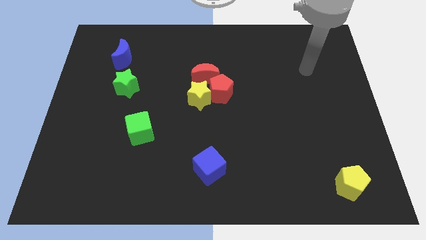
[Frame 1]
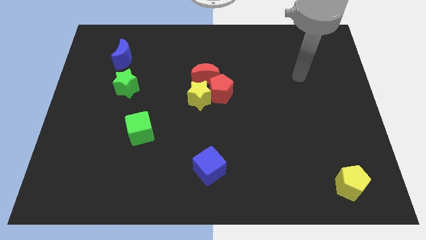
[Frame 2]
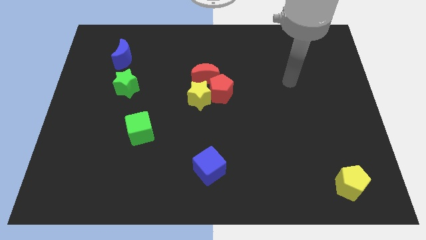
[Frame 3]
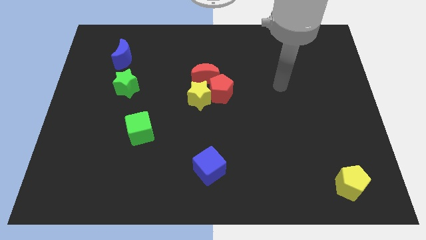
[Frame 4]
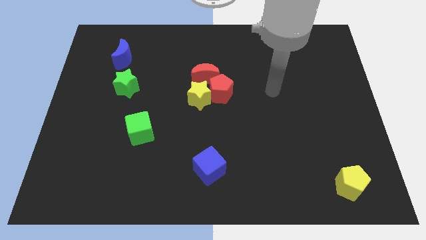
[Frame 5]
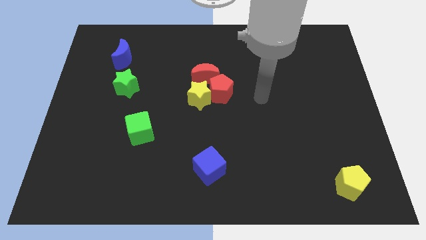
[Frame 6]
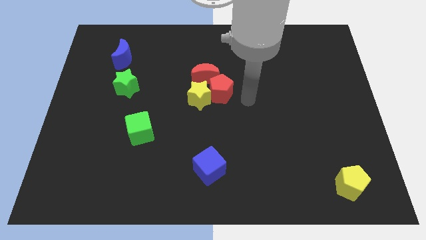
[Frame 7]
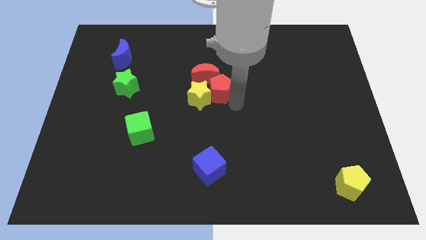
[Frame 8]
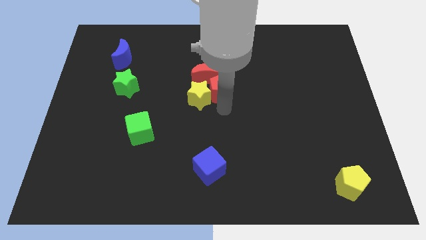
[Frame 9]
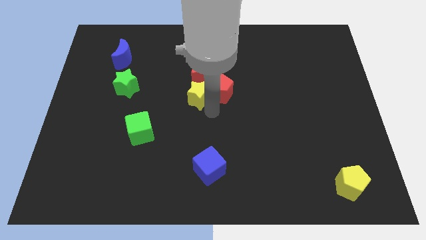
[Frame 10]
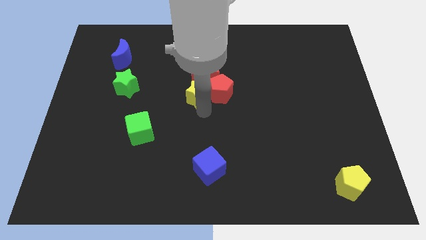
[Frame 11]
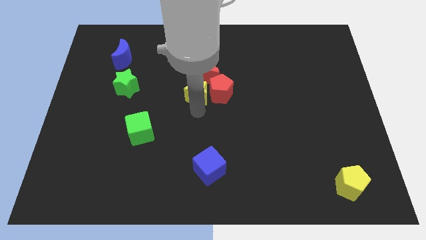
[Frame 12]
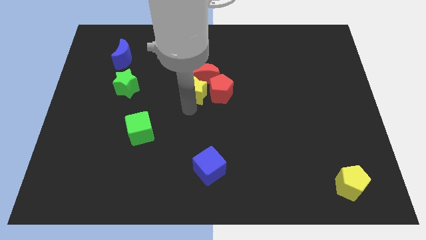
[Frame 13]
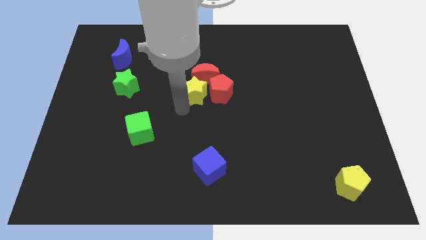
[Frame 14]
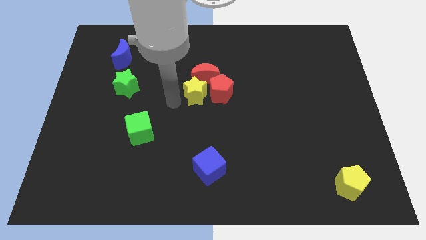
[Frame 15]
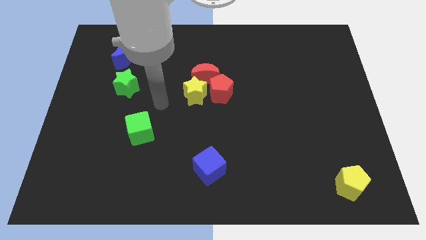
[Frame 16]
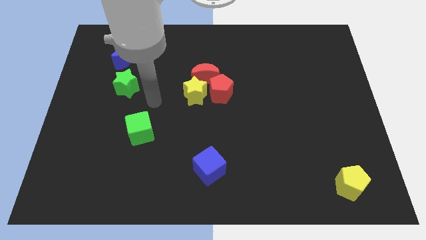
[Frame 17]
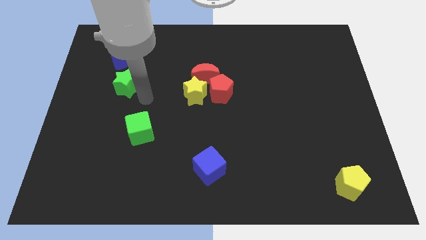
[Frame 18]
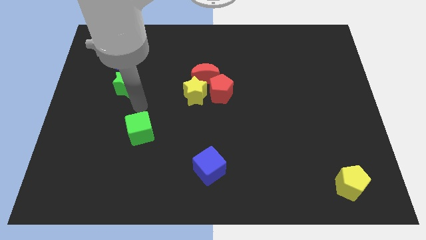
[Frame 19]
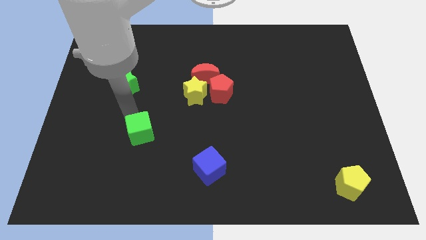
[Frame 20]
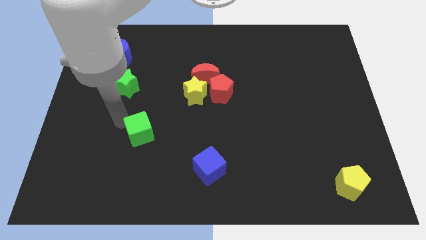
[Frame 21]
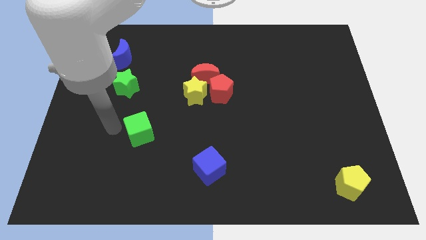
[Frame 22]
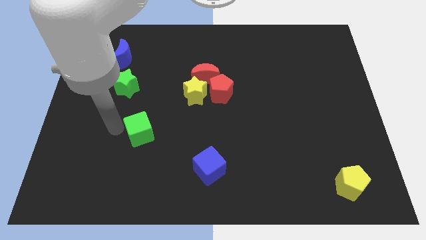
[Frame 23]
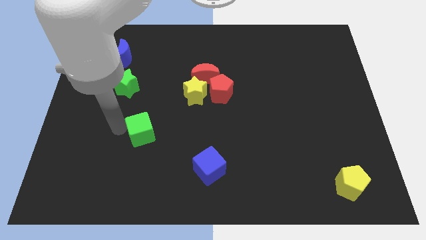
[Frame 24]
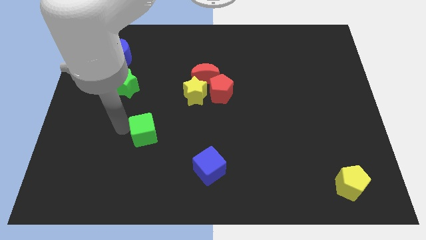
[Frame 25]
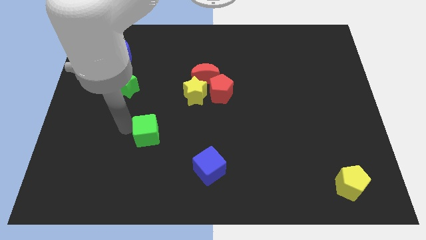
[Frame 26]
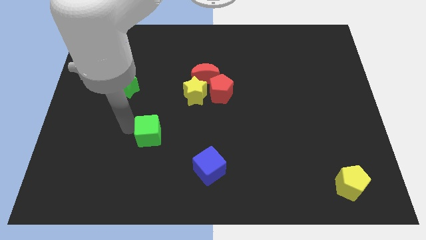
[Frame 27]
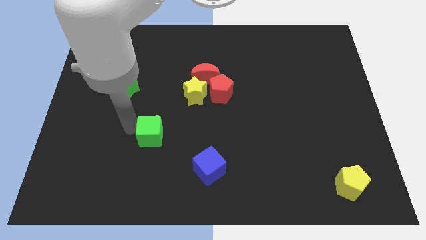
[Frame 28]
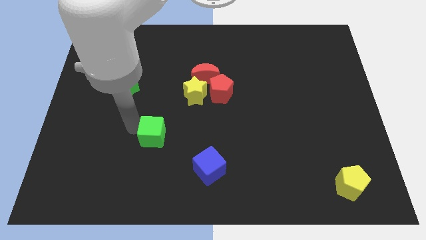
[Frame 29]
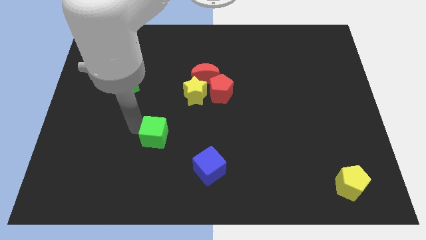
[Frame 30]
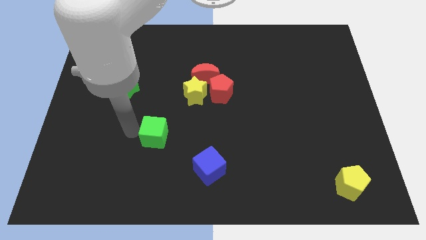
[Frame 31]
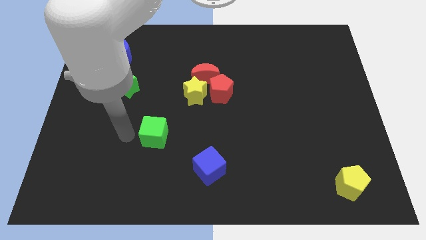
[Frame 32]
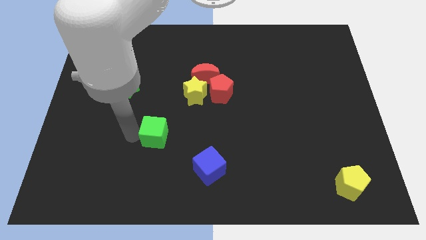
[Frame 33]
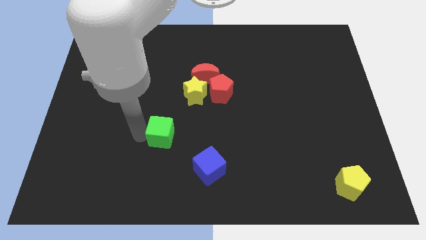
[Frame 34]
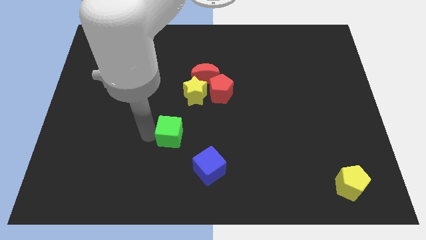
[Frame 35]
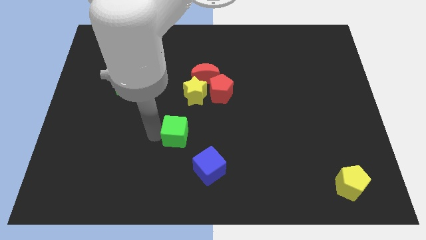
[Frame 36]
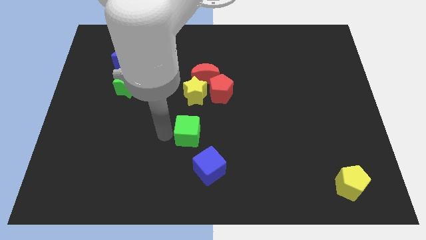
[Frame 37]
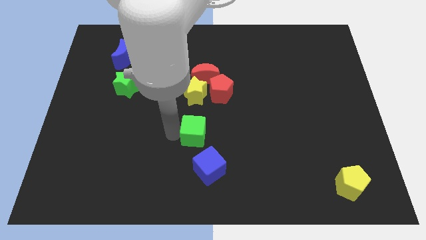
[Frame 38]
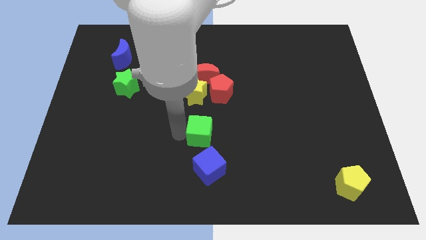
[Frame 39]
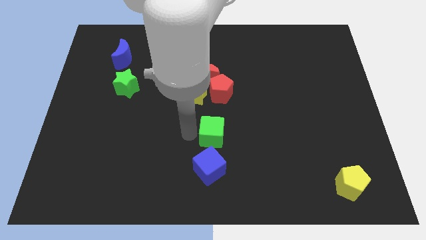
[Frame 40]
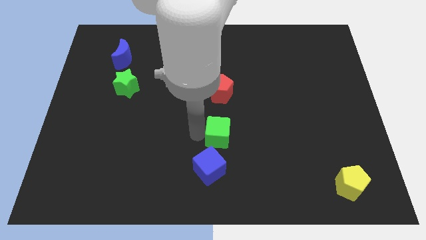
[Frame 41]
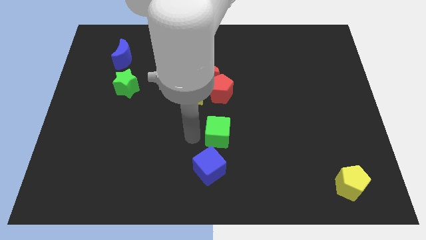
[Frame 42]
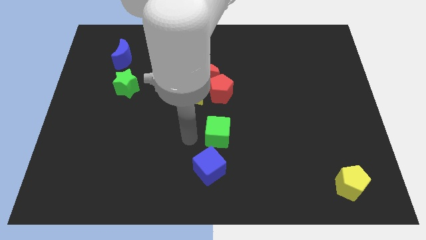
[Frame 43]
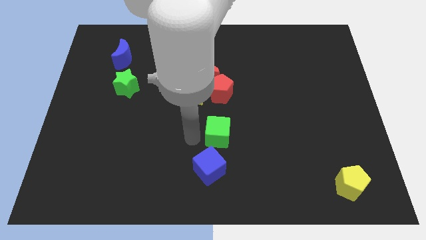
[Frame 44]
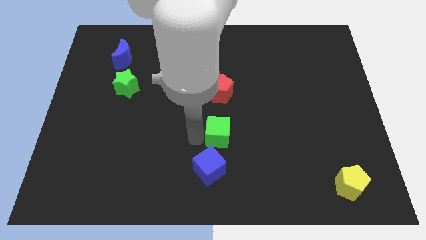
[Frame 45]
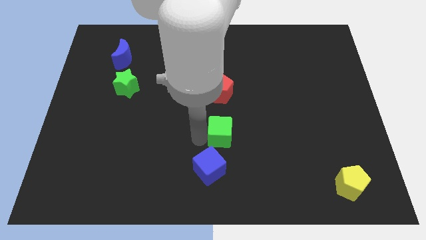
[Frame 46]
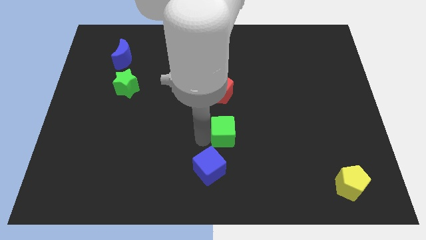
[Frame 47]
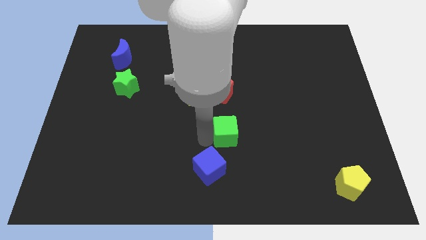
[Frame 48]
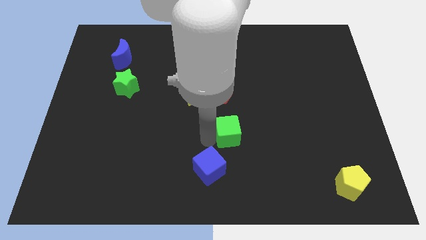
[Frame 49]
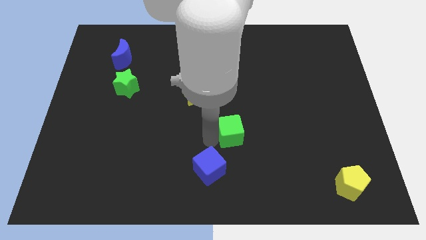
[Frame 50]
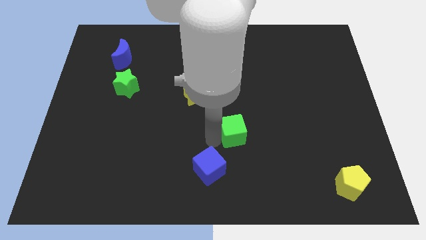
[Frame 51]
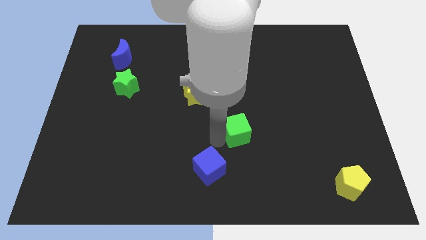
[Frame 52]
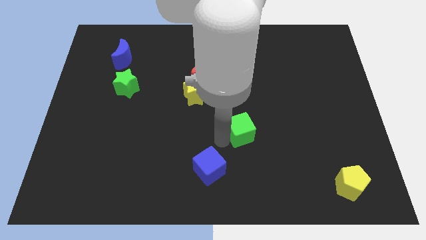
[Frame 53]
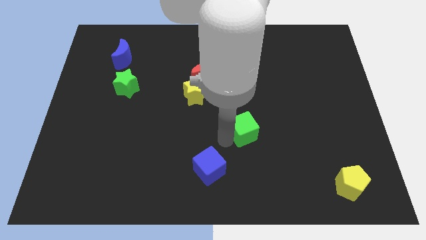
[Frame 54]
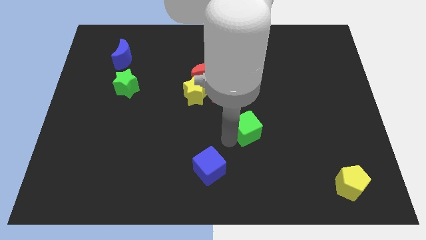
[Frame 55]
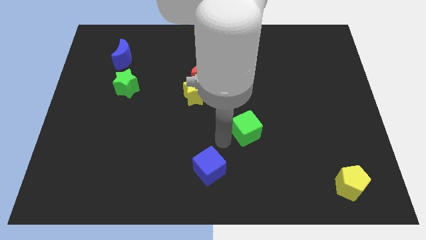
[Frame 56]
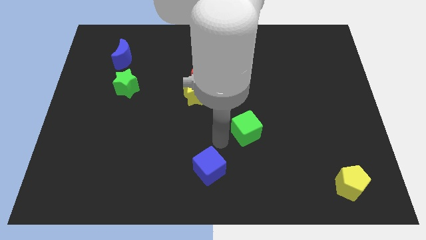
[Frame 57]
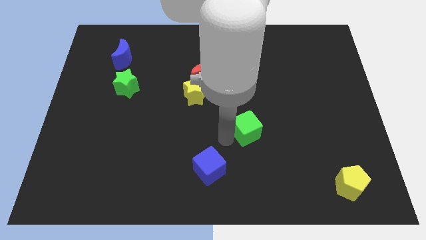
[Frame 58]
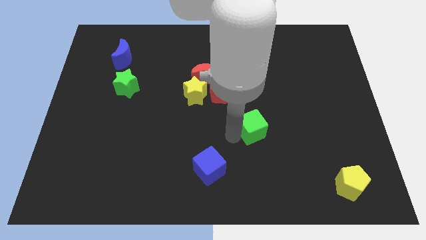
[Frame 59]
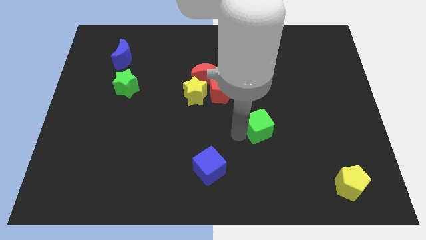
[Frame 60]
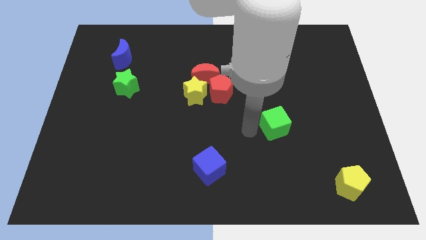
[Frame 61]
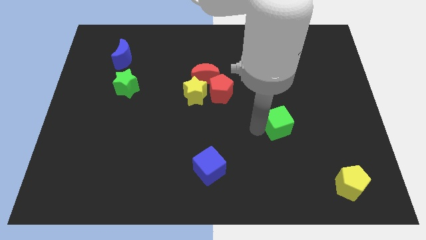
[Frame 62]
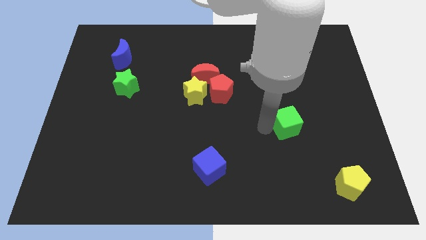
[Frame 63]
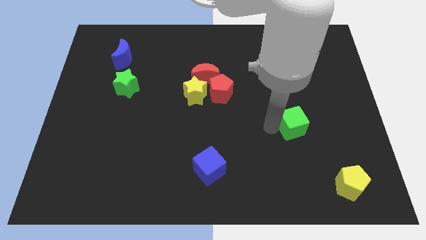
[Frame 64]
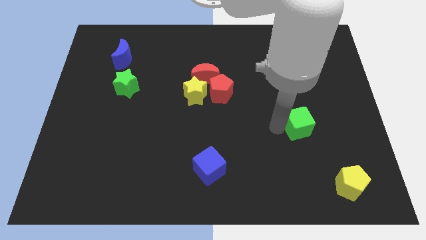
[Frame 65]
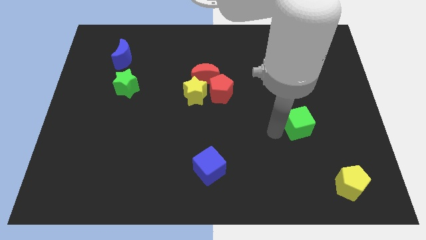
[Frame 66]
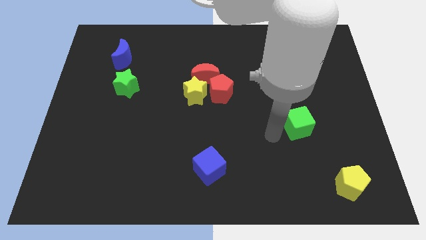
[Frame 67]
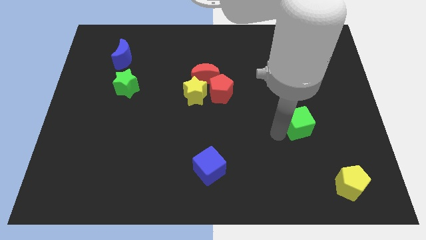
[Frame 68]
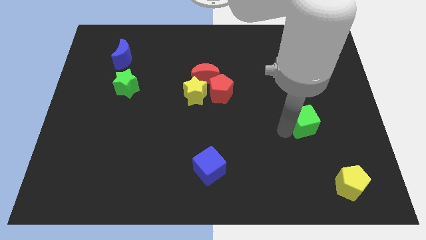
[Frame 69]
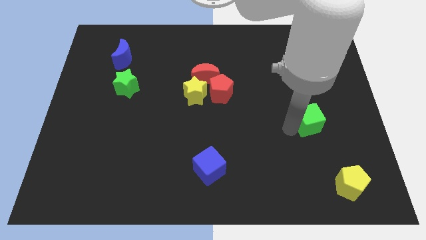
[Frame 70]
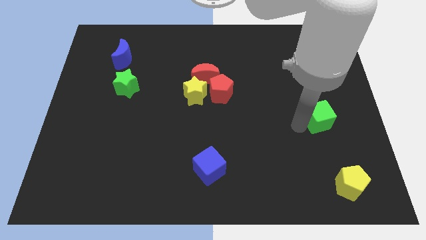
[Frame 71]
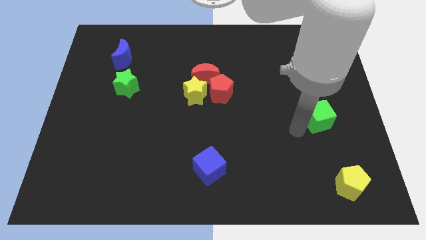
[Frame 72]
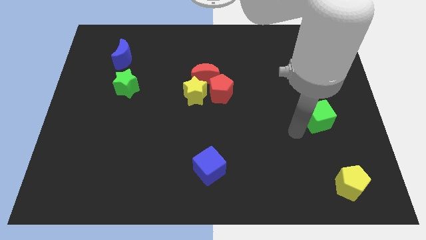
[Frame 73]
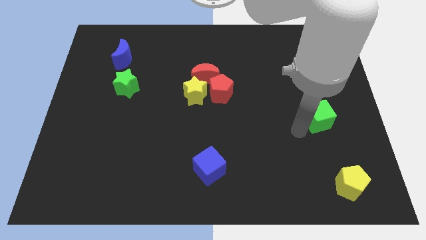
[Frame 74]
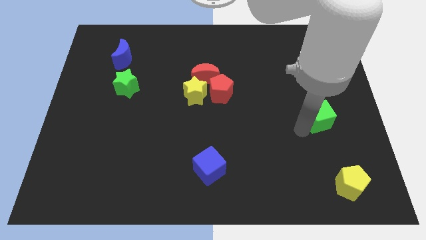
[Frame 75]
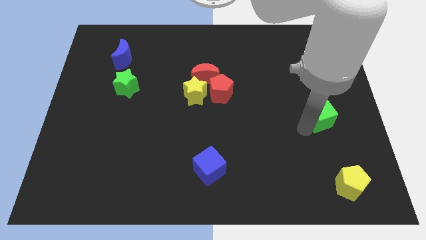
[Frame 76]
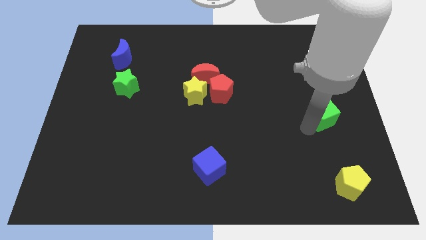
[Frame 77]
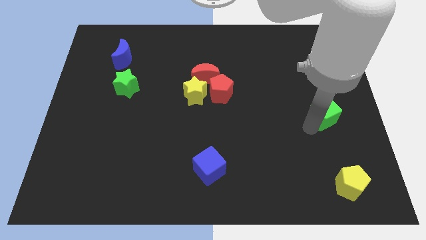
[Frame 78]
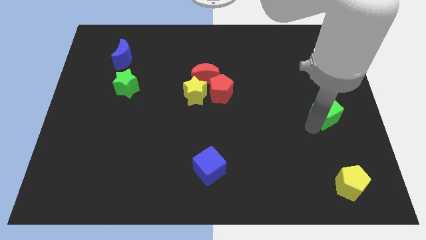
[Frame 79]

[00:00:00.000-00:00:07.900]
slide the green cube to the right side
